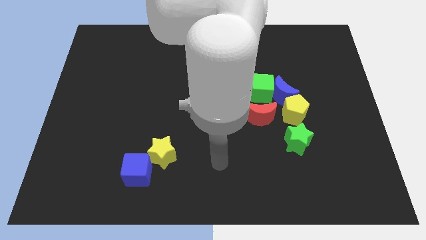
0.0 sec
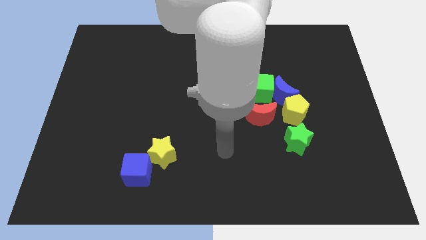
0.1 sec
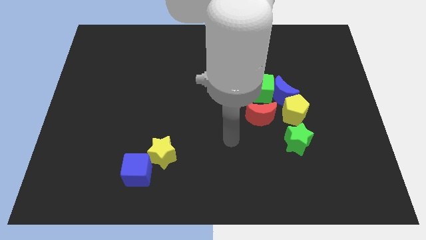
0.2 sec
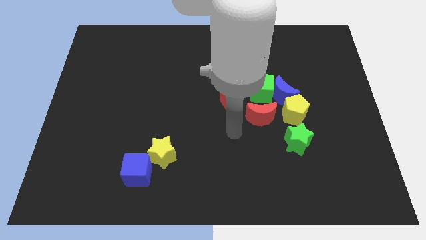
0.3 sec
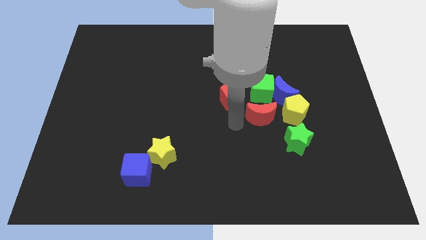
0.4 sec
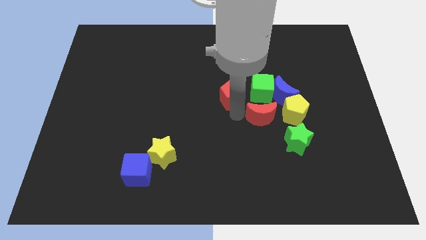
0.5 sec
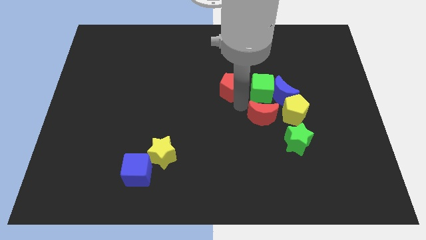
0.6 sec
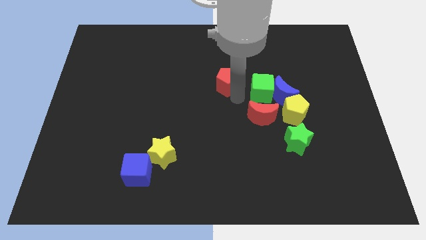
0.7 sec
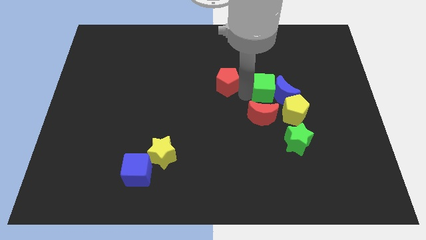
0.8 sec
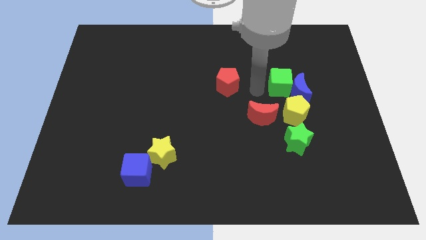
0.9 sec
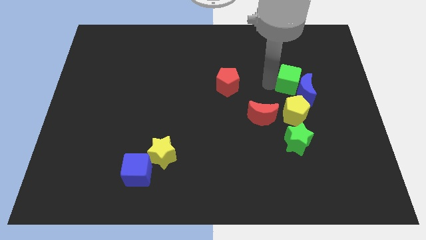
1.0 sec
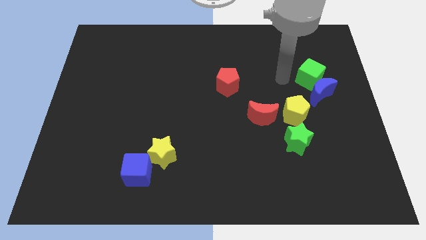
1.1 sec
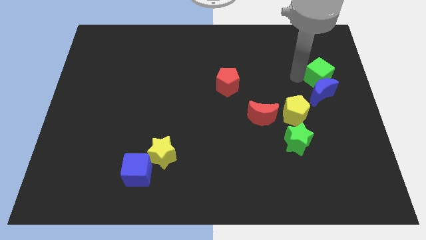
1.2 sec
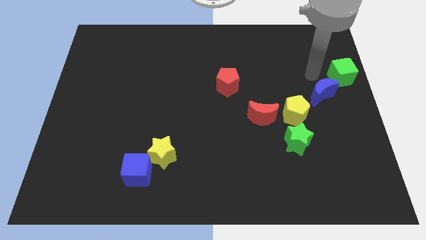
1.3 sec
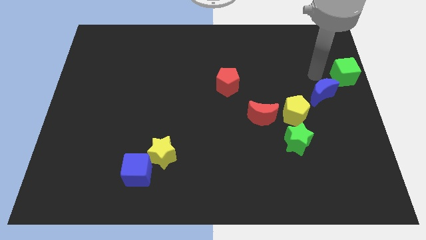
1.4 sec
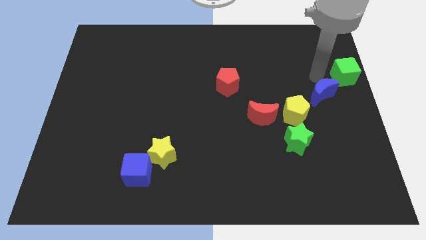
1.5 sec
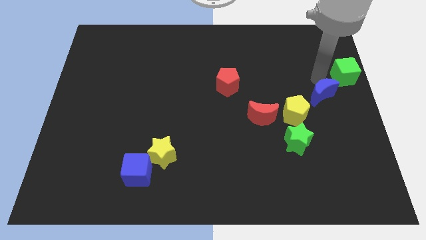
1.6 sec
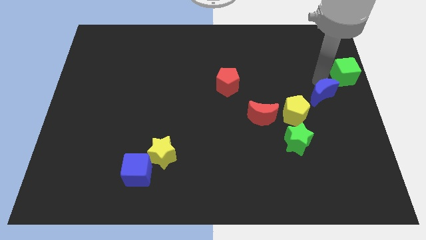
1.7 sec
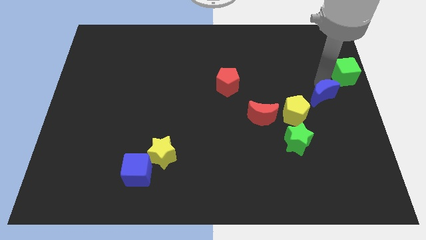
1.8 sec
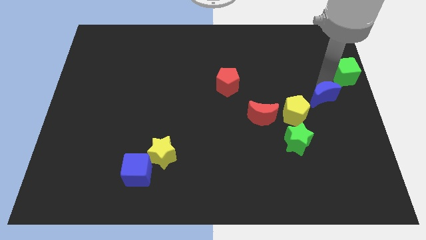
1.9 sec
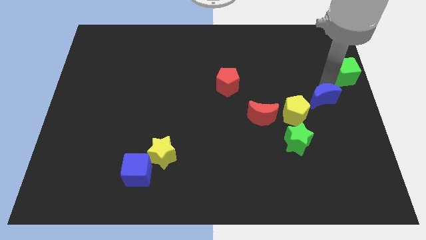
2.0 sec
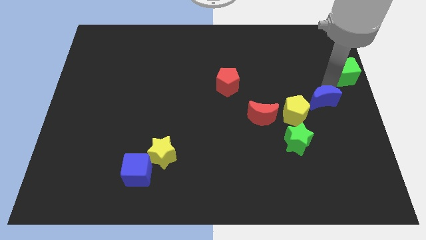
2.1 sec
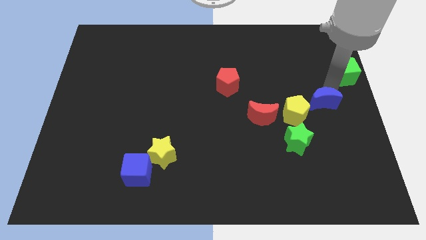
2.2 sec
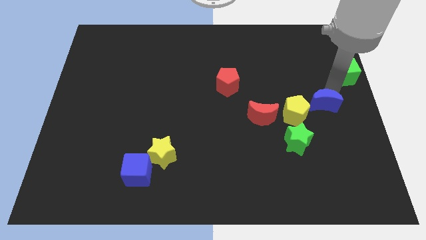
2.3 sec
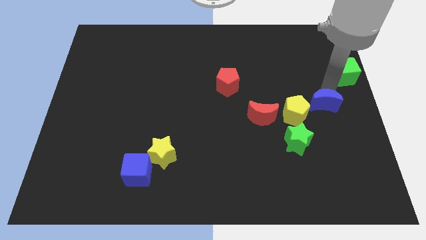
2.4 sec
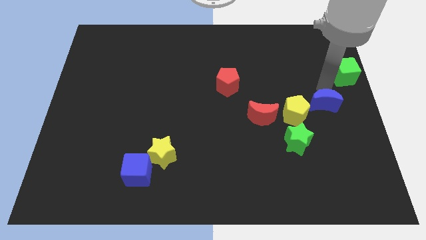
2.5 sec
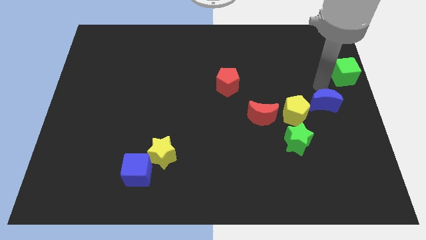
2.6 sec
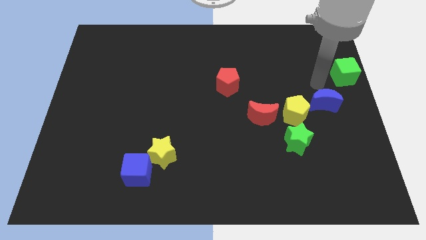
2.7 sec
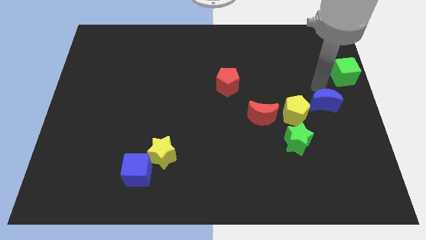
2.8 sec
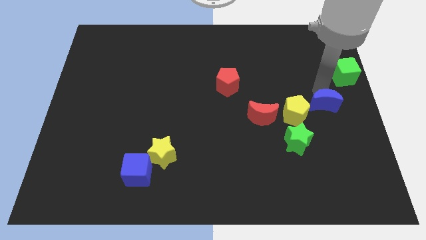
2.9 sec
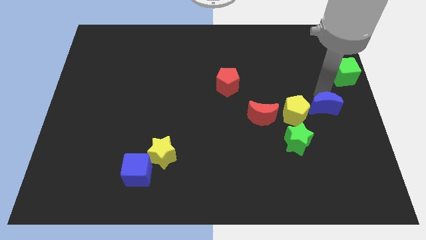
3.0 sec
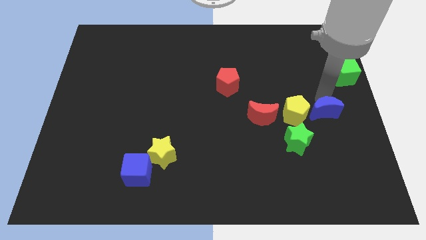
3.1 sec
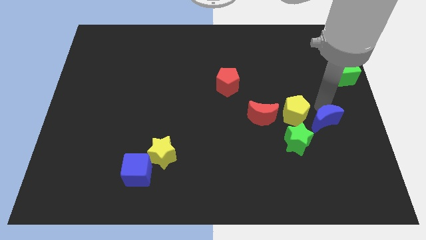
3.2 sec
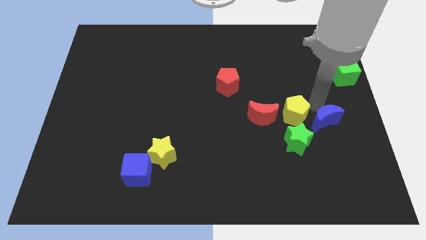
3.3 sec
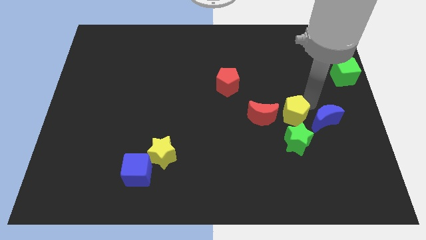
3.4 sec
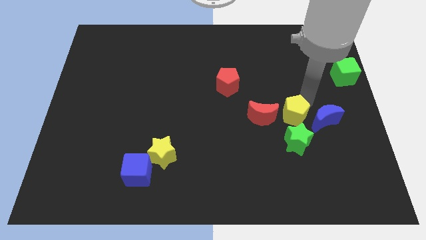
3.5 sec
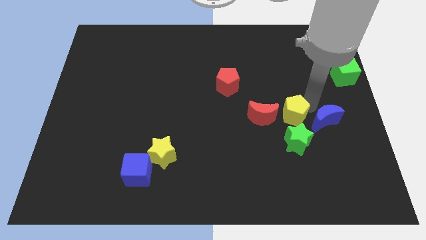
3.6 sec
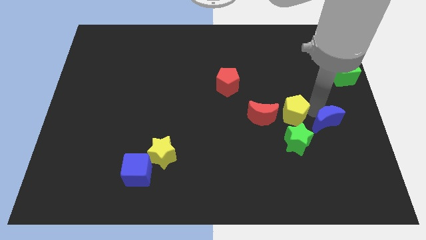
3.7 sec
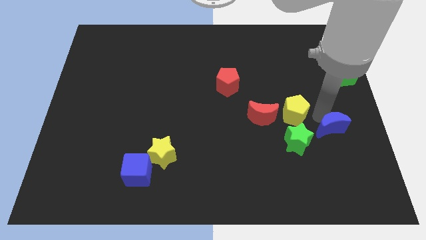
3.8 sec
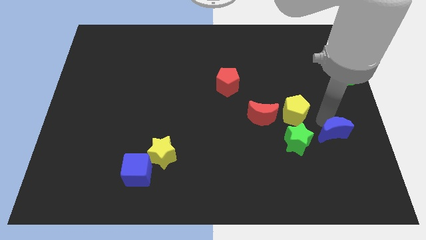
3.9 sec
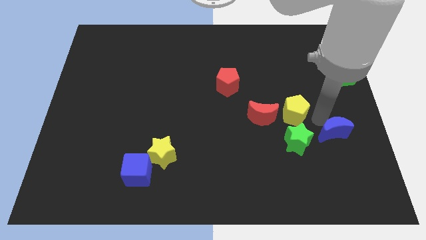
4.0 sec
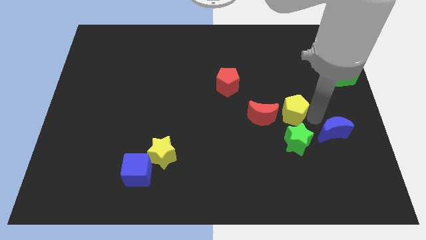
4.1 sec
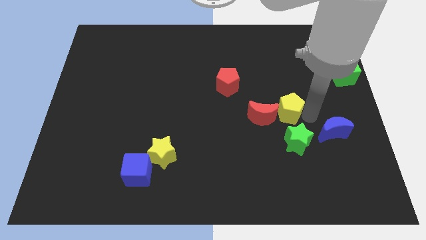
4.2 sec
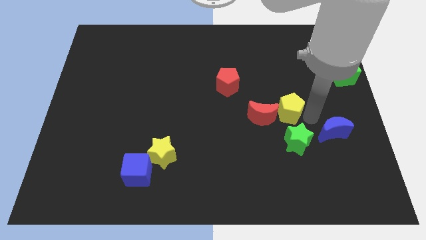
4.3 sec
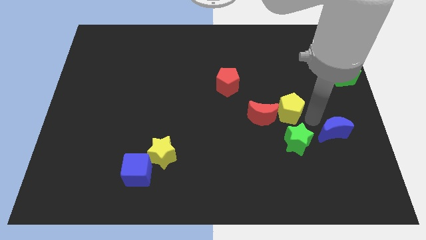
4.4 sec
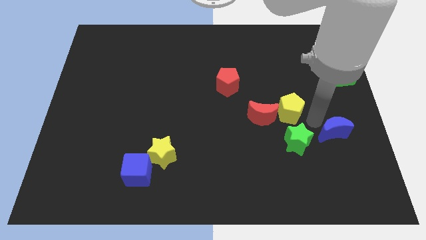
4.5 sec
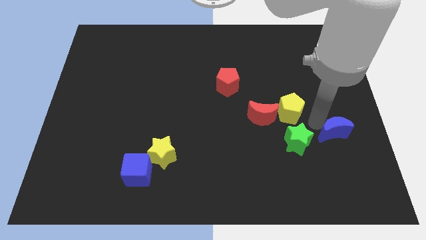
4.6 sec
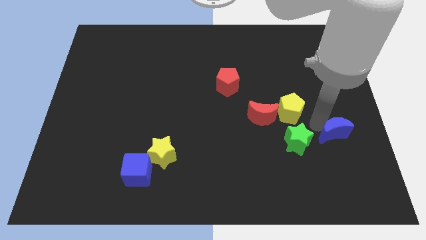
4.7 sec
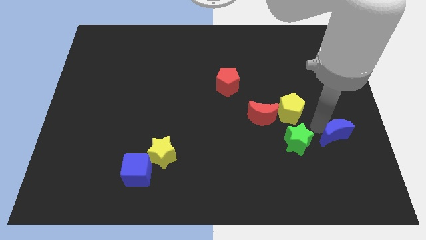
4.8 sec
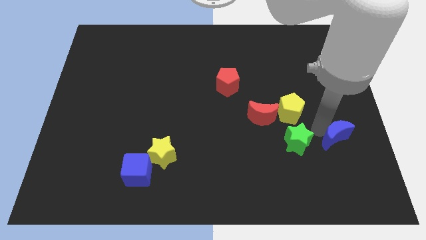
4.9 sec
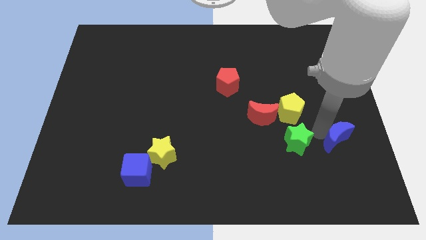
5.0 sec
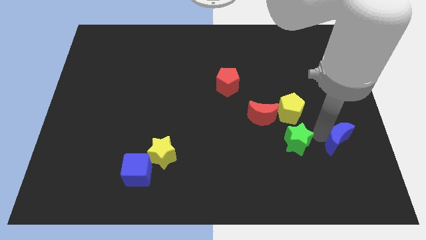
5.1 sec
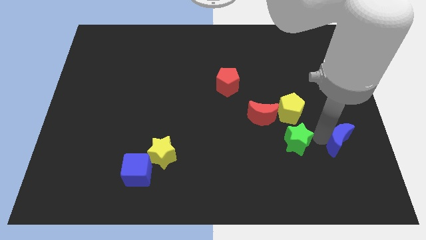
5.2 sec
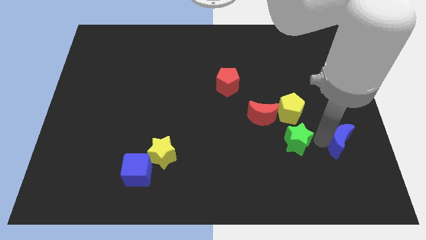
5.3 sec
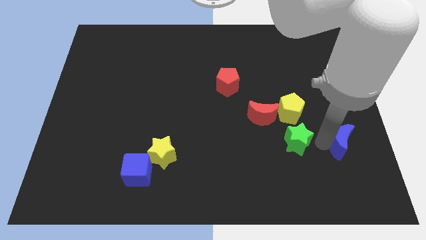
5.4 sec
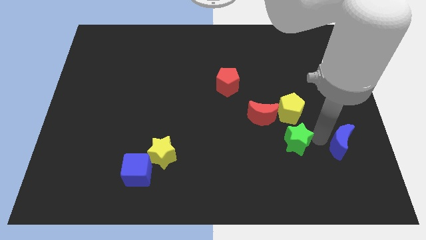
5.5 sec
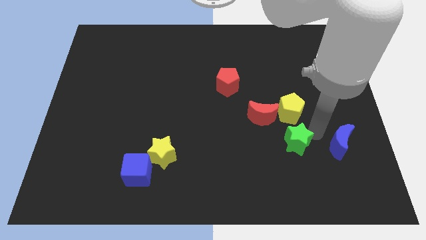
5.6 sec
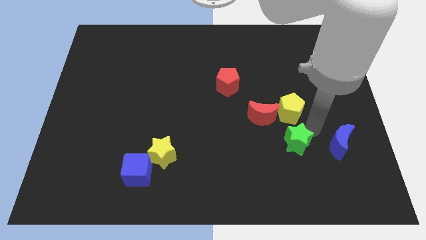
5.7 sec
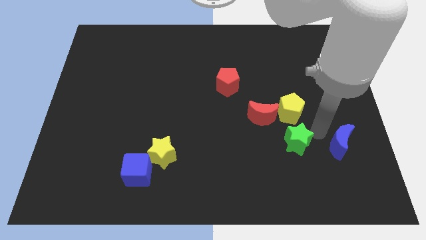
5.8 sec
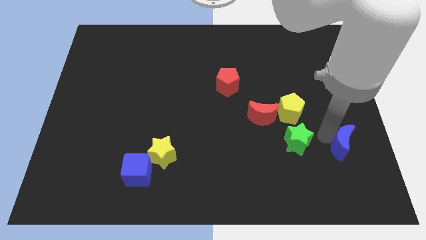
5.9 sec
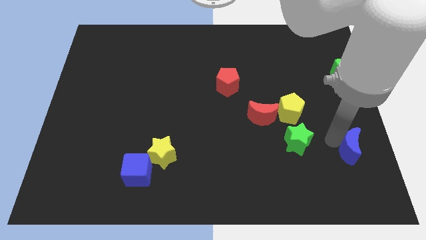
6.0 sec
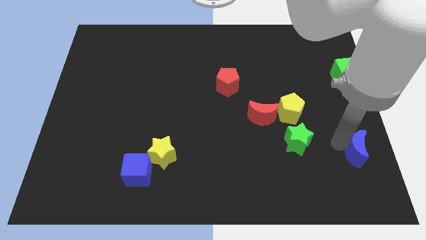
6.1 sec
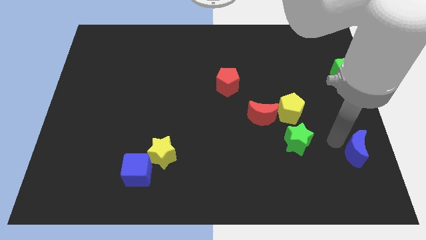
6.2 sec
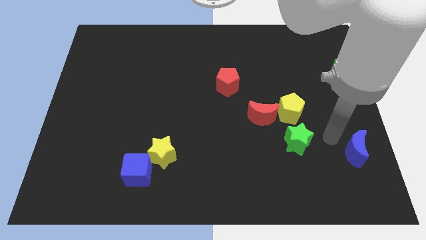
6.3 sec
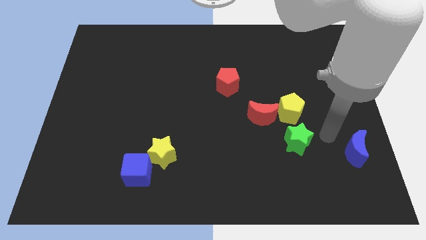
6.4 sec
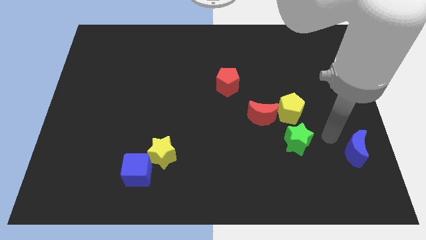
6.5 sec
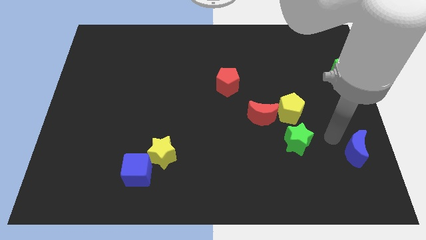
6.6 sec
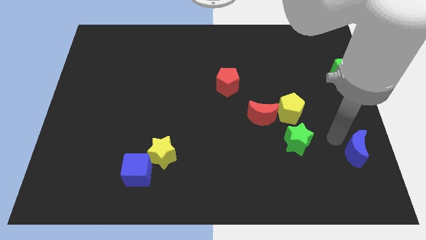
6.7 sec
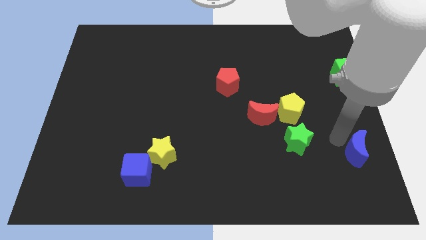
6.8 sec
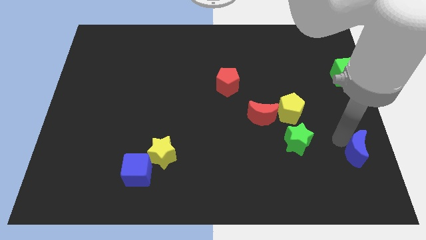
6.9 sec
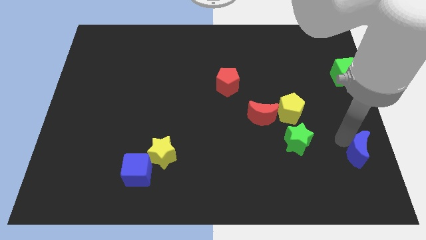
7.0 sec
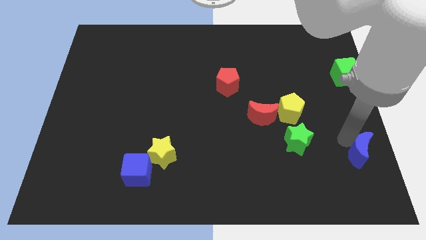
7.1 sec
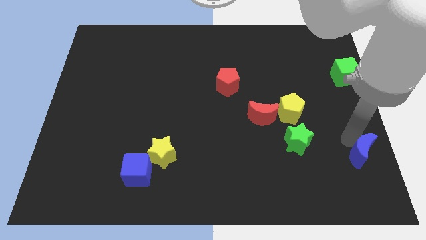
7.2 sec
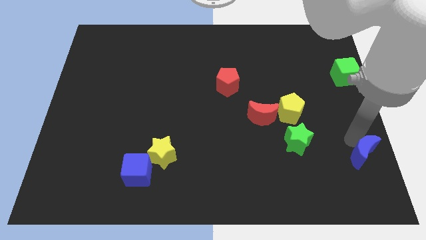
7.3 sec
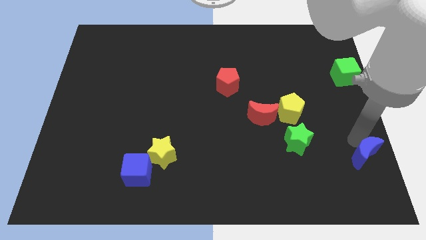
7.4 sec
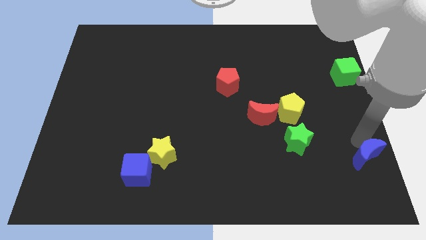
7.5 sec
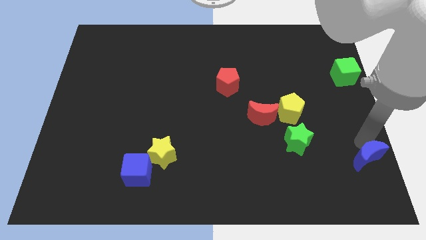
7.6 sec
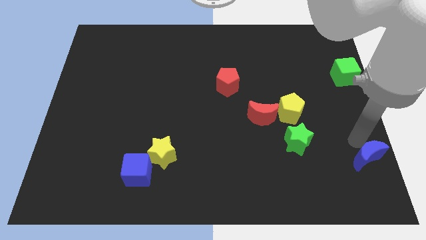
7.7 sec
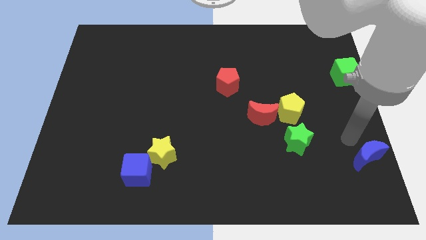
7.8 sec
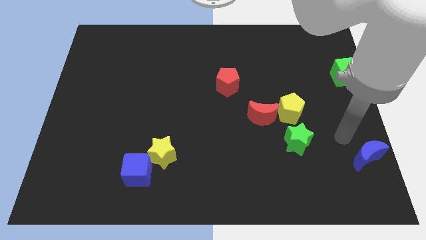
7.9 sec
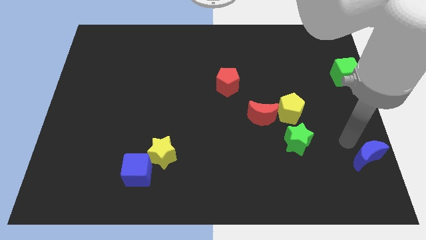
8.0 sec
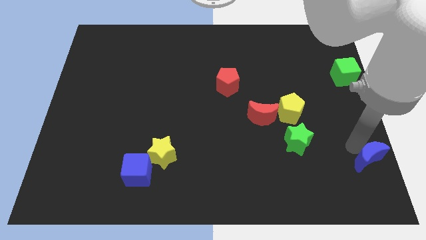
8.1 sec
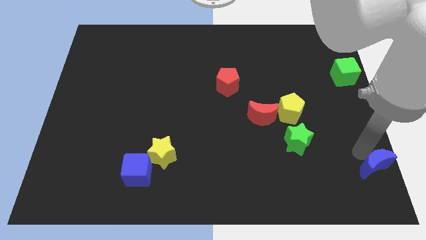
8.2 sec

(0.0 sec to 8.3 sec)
push the blue moon to the bottom right
